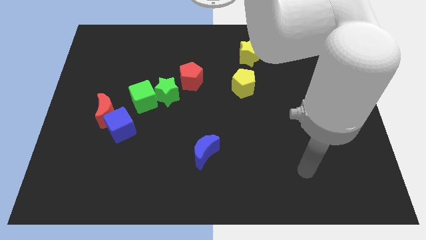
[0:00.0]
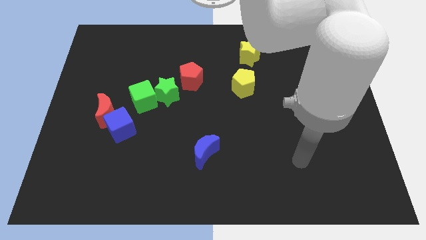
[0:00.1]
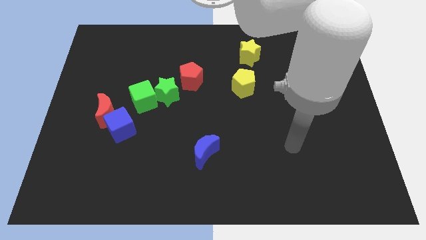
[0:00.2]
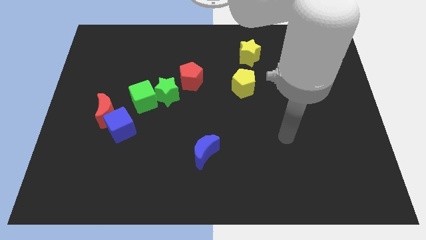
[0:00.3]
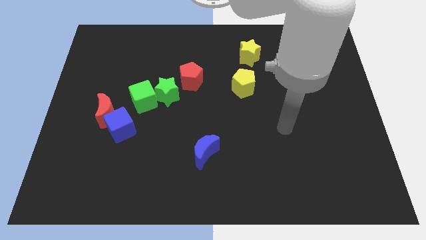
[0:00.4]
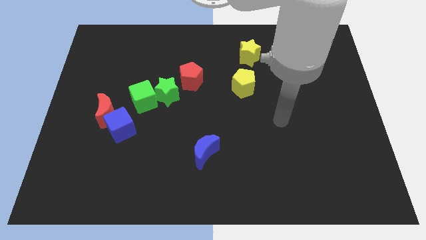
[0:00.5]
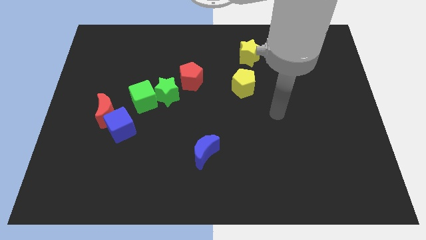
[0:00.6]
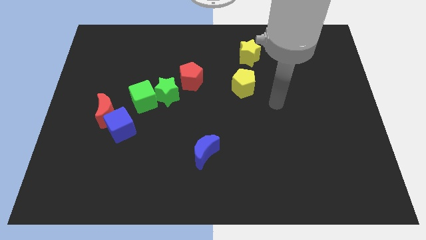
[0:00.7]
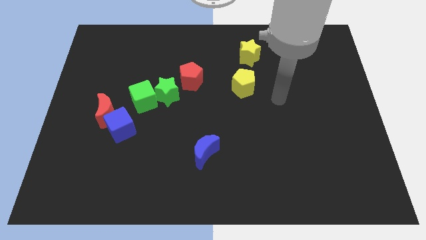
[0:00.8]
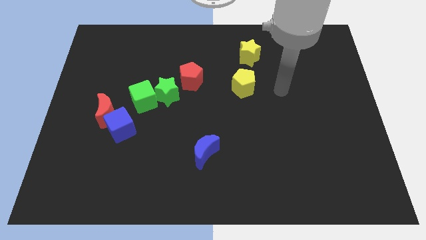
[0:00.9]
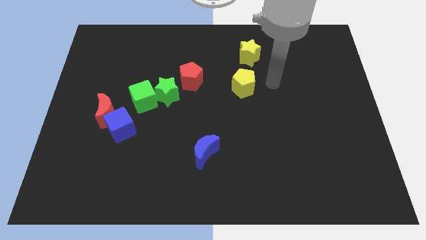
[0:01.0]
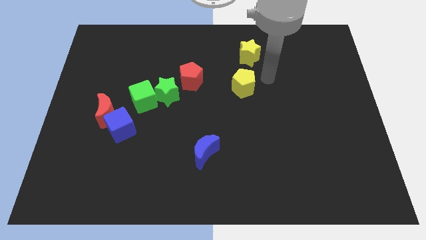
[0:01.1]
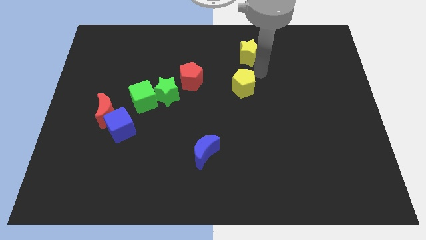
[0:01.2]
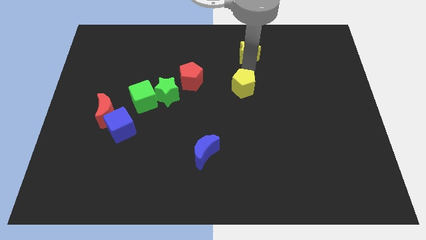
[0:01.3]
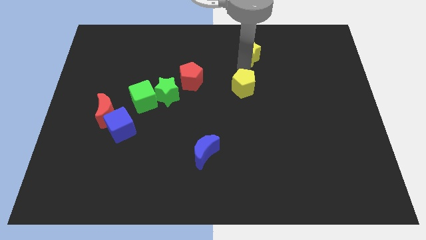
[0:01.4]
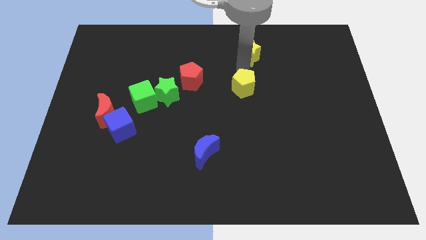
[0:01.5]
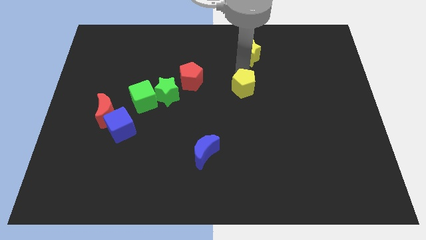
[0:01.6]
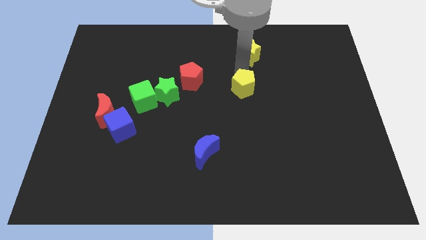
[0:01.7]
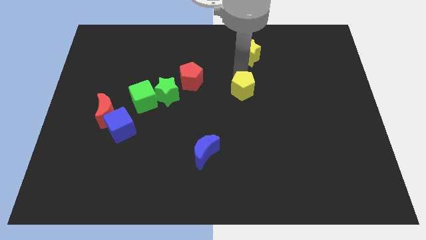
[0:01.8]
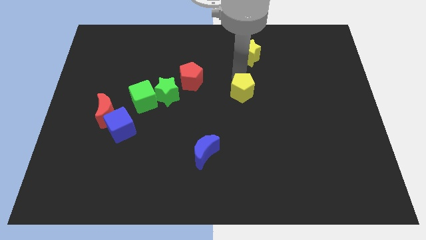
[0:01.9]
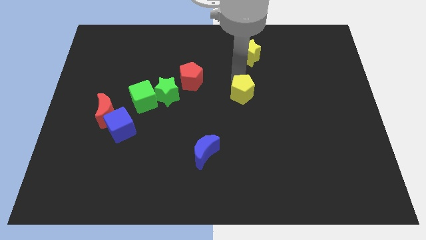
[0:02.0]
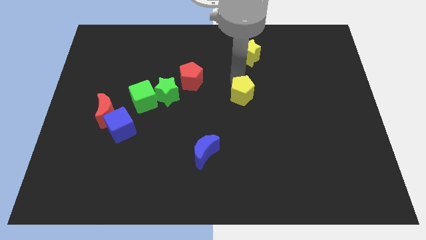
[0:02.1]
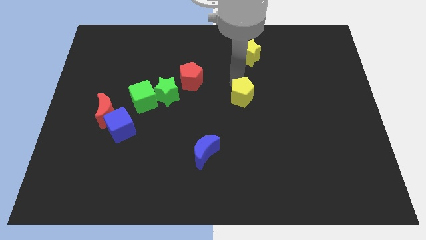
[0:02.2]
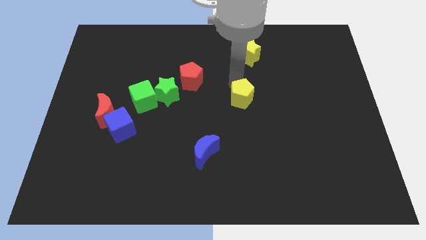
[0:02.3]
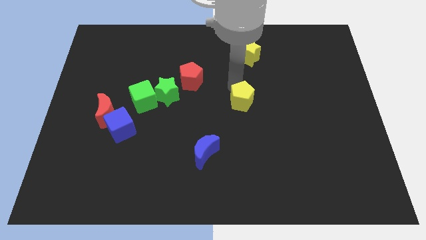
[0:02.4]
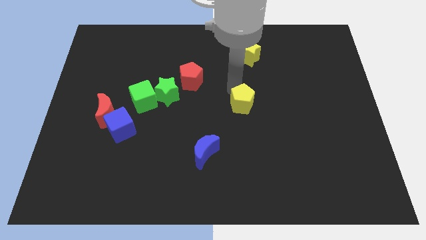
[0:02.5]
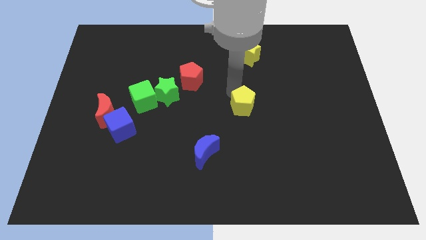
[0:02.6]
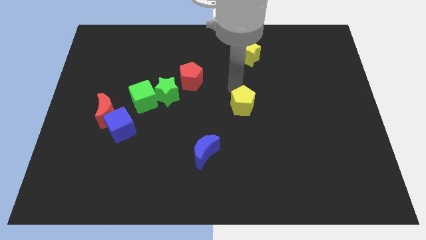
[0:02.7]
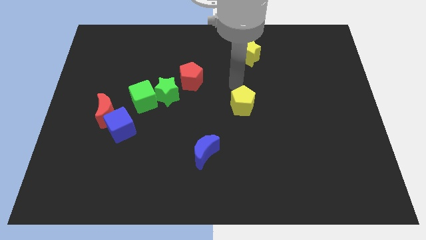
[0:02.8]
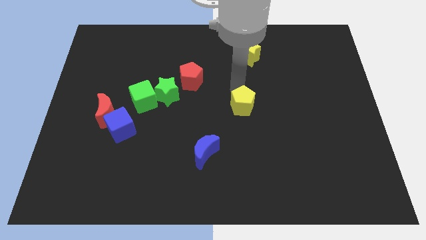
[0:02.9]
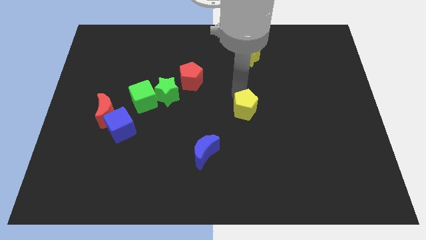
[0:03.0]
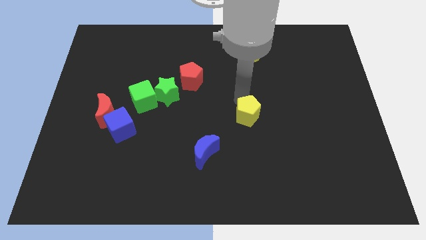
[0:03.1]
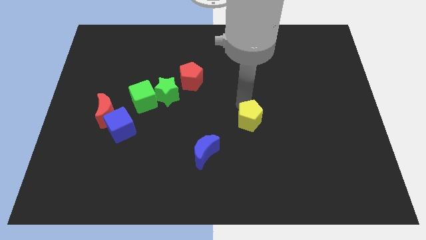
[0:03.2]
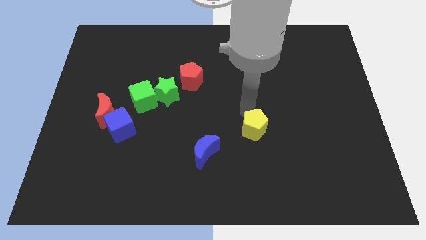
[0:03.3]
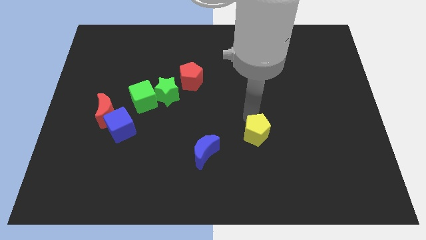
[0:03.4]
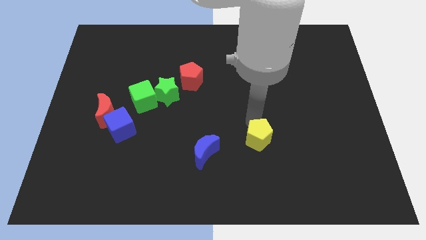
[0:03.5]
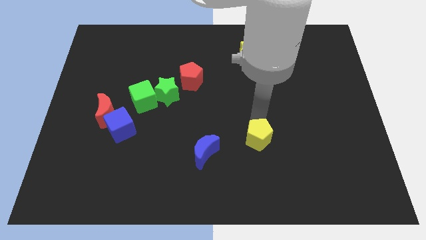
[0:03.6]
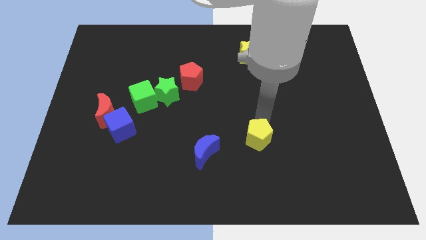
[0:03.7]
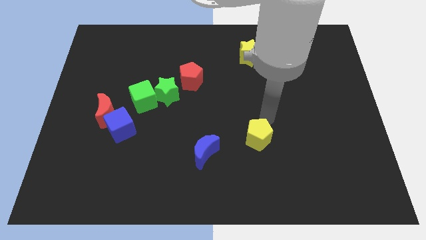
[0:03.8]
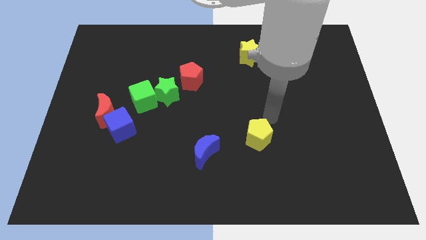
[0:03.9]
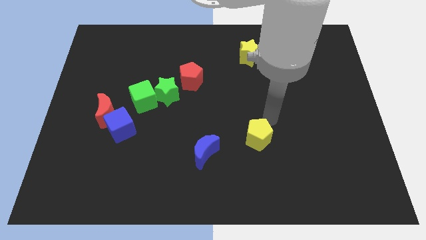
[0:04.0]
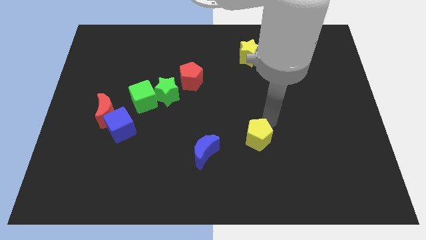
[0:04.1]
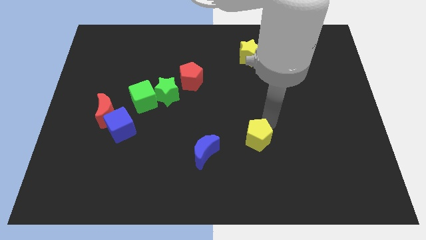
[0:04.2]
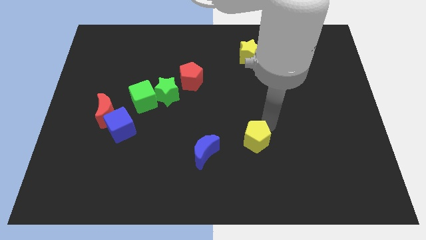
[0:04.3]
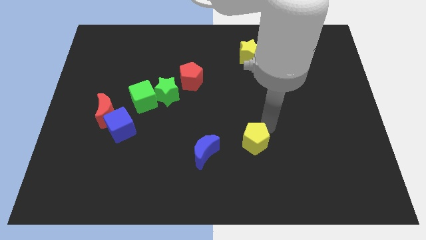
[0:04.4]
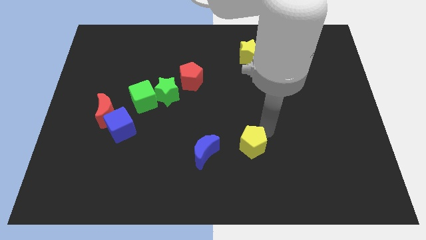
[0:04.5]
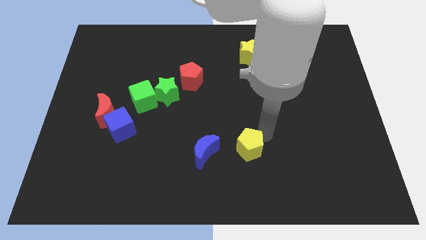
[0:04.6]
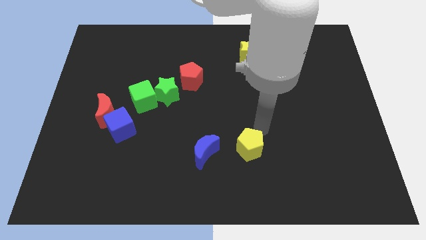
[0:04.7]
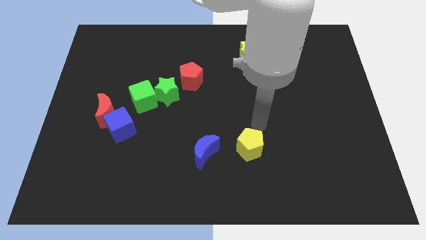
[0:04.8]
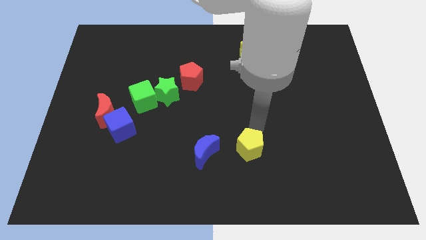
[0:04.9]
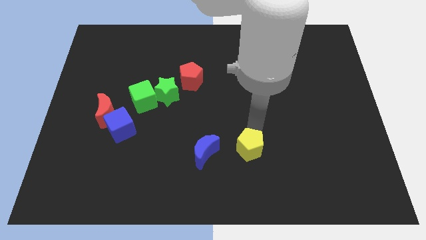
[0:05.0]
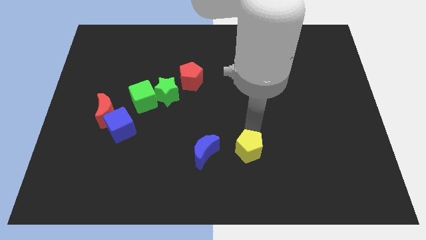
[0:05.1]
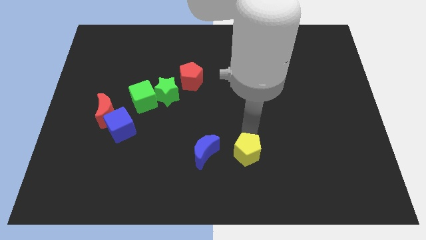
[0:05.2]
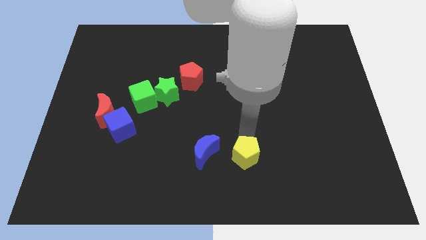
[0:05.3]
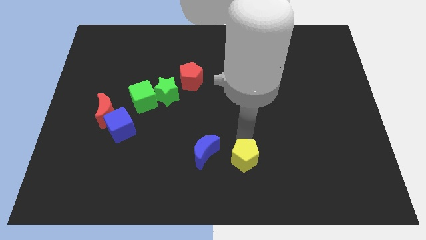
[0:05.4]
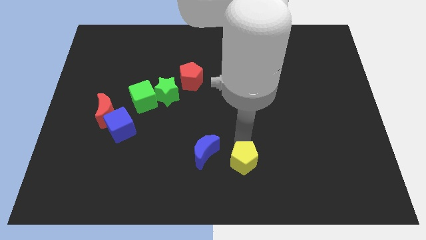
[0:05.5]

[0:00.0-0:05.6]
push the yellow pentagon to the bottom side

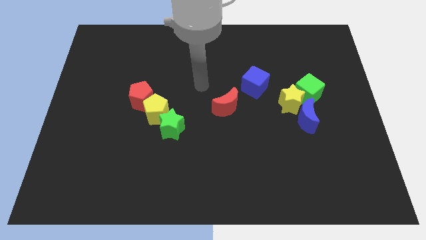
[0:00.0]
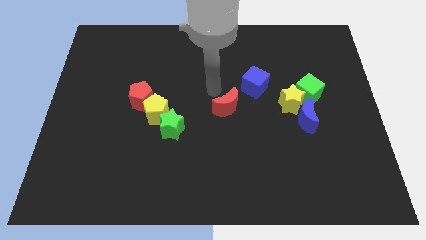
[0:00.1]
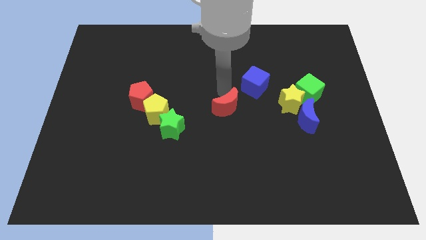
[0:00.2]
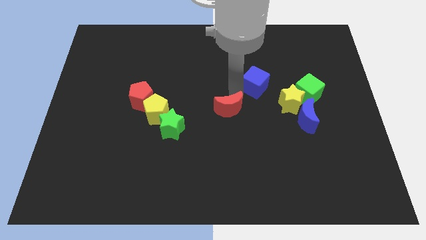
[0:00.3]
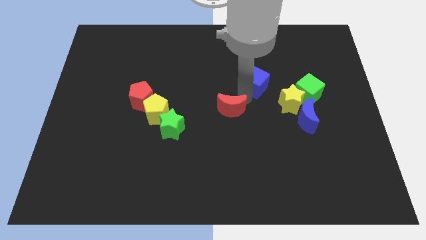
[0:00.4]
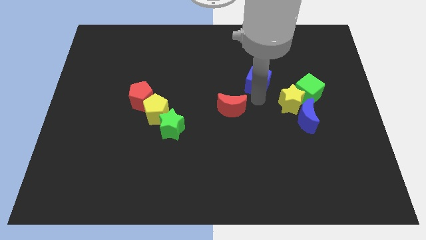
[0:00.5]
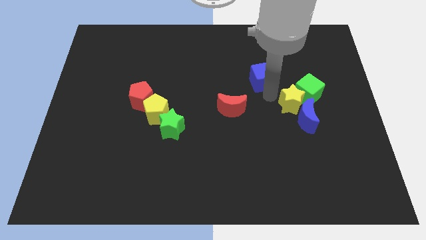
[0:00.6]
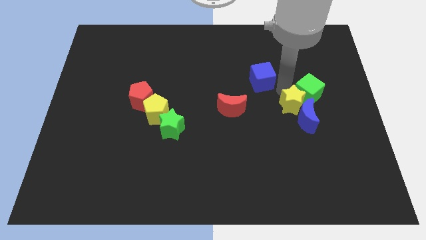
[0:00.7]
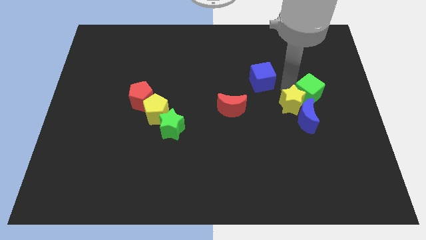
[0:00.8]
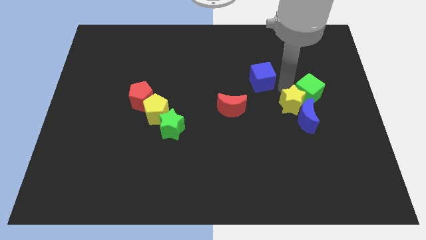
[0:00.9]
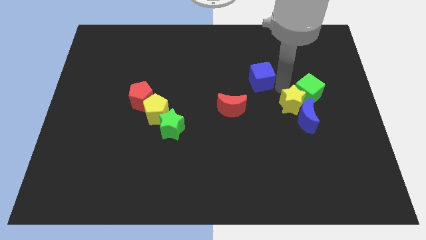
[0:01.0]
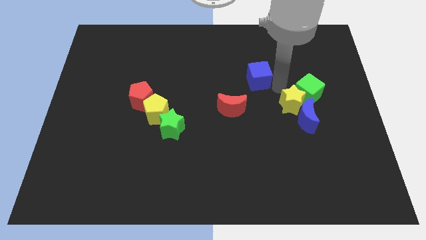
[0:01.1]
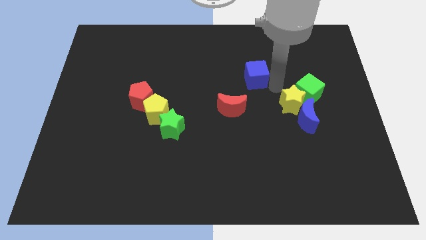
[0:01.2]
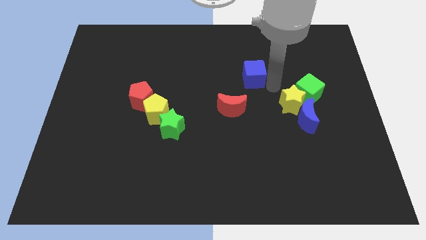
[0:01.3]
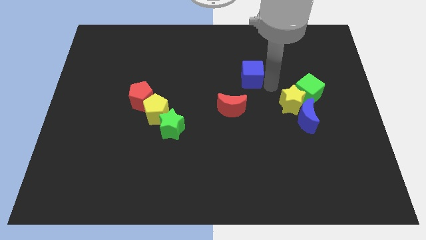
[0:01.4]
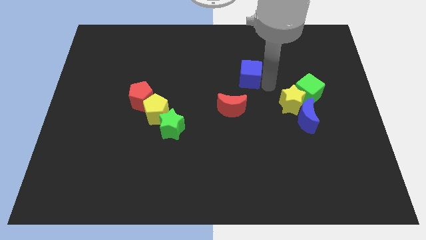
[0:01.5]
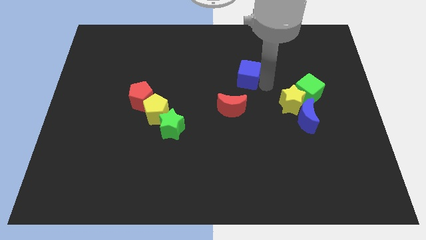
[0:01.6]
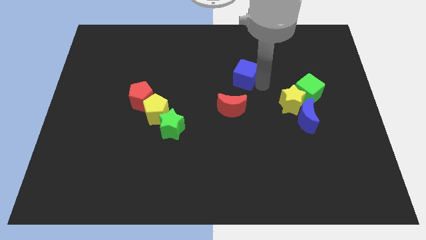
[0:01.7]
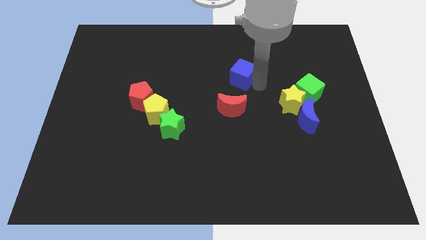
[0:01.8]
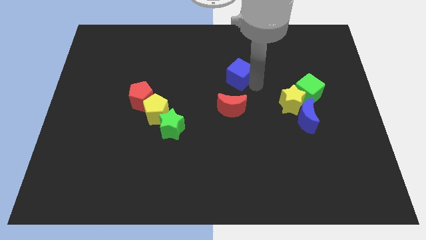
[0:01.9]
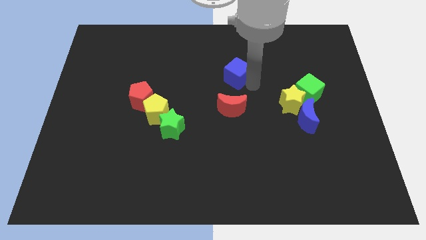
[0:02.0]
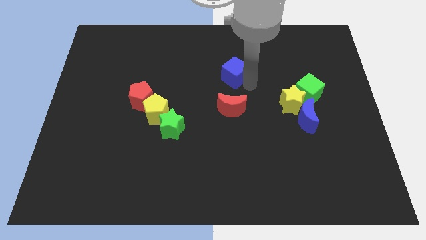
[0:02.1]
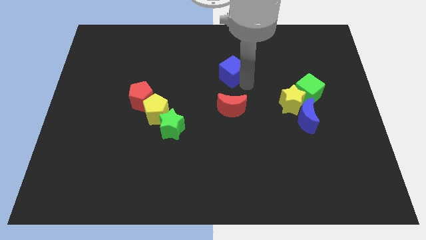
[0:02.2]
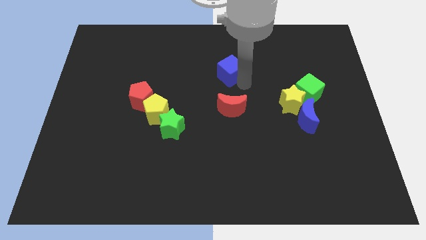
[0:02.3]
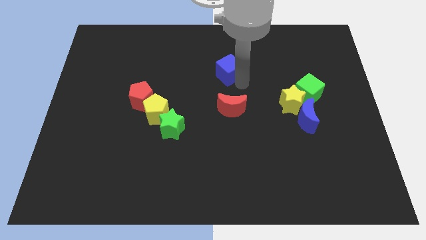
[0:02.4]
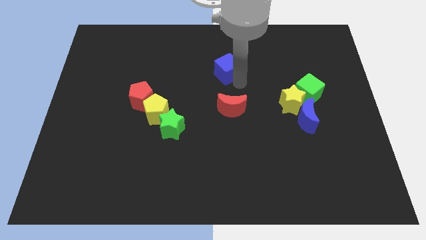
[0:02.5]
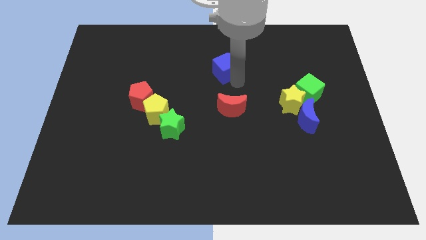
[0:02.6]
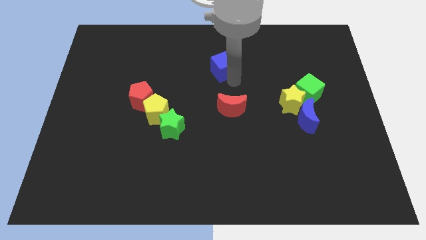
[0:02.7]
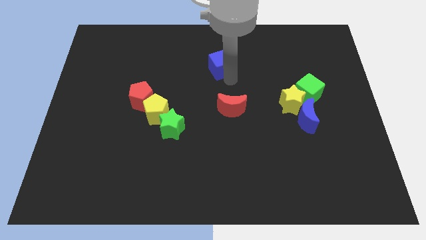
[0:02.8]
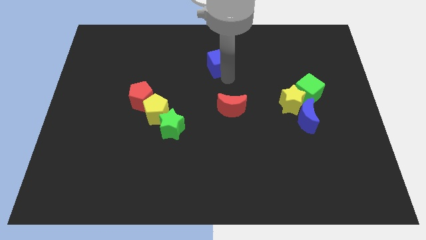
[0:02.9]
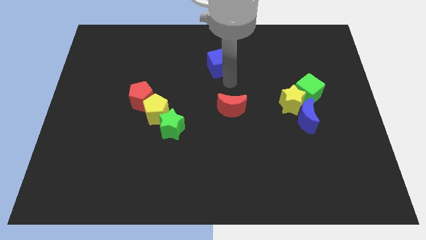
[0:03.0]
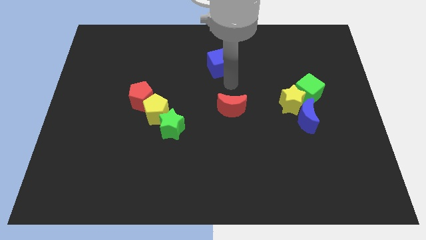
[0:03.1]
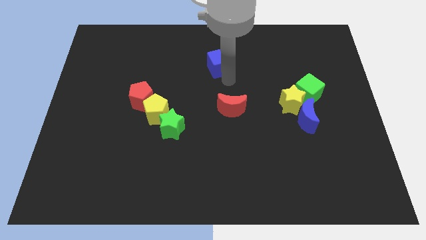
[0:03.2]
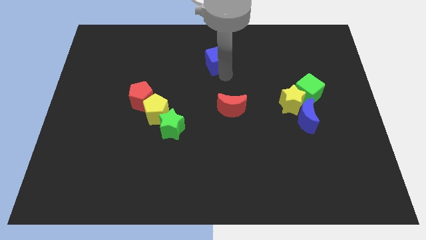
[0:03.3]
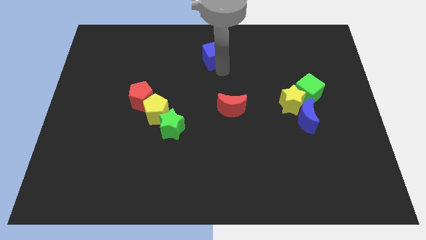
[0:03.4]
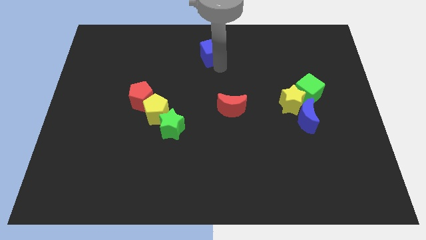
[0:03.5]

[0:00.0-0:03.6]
push the blue cube to the top side
